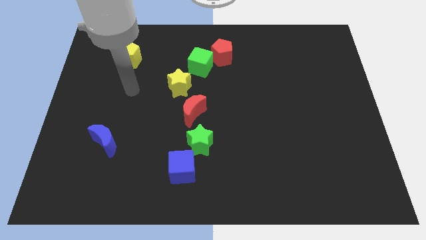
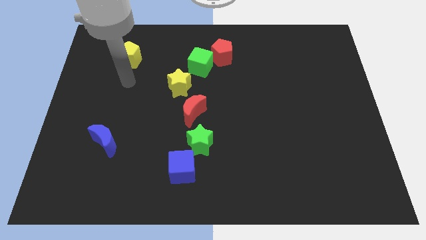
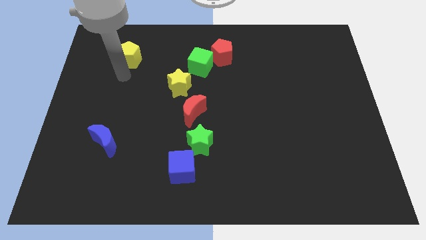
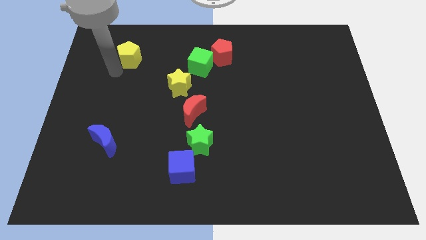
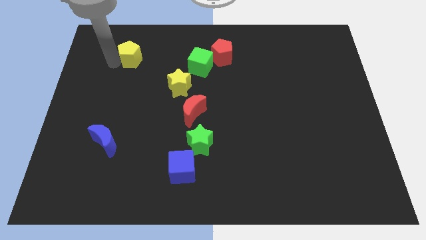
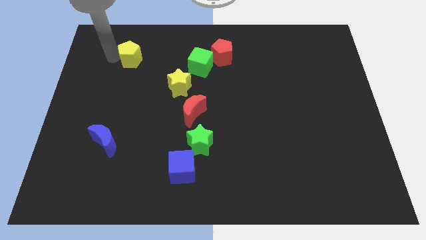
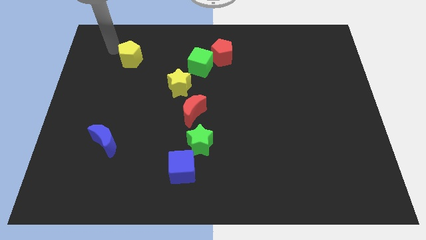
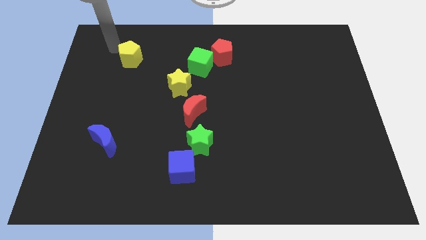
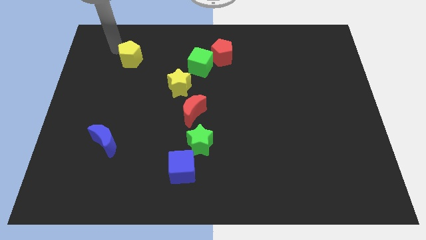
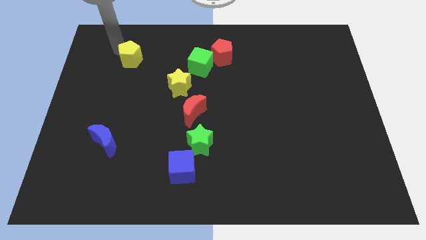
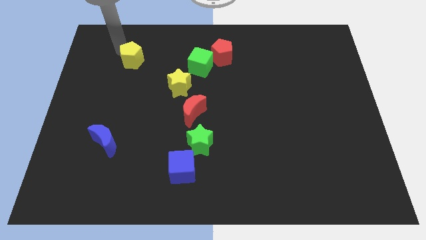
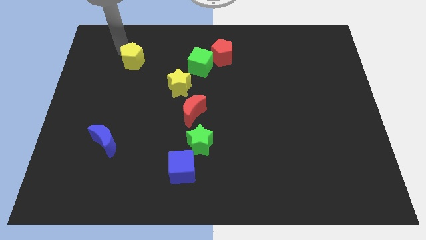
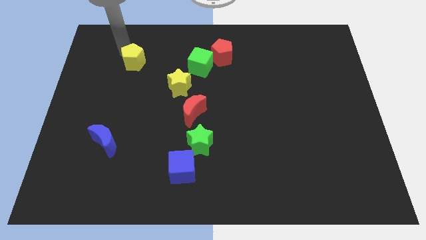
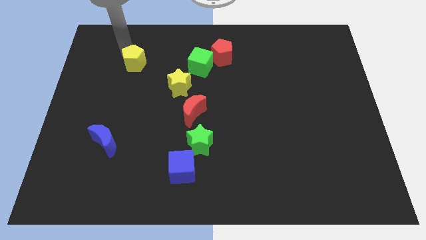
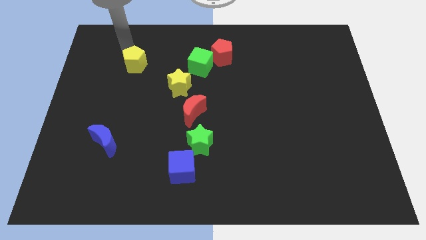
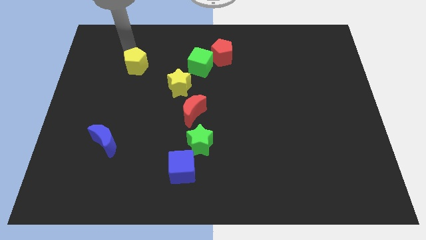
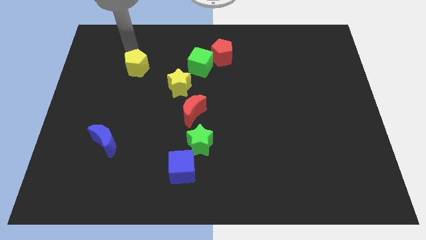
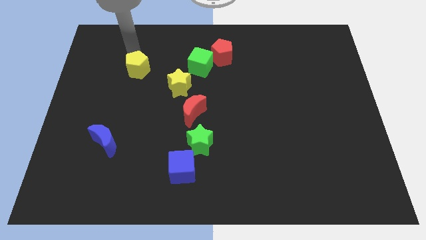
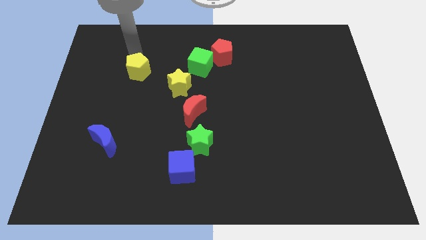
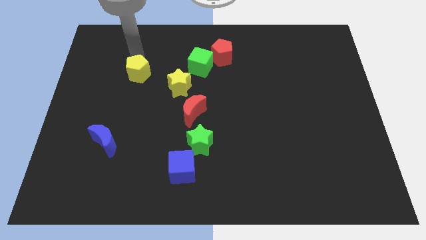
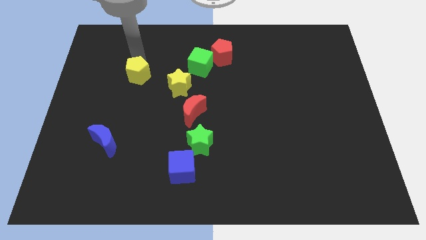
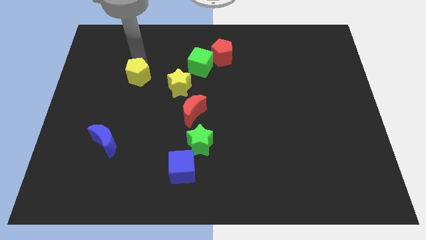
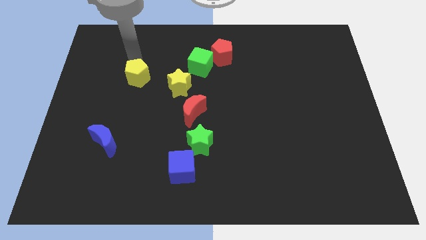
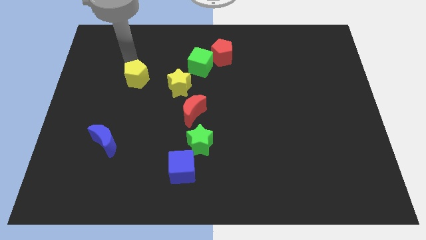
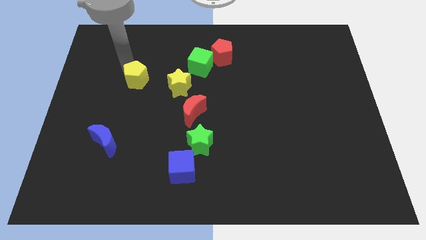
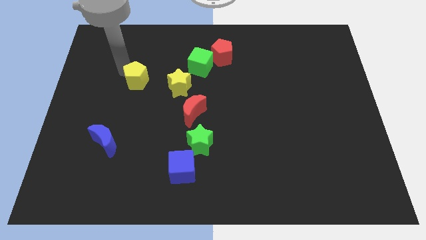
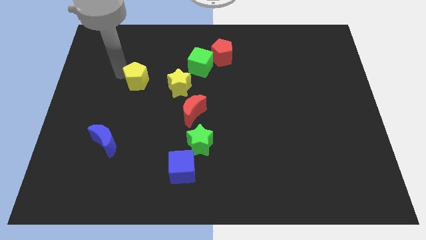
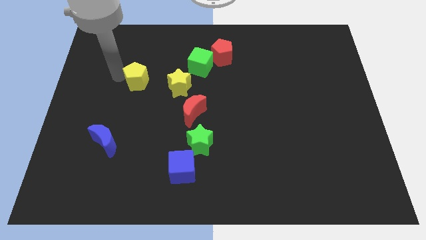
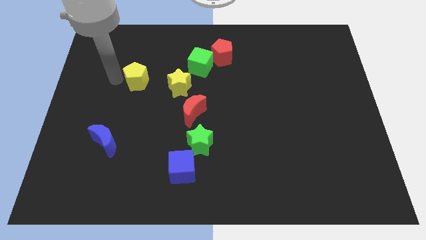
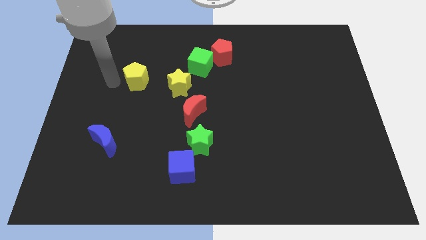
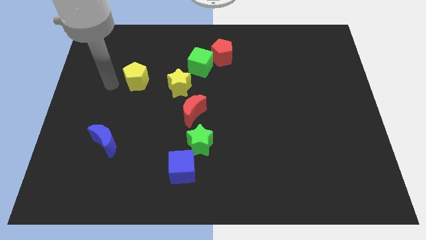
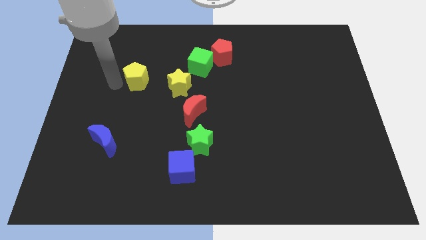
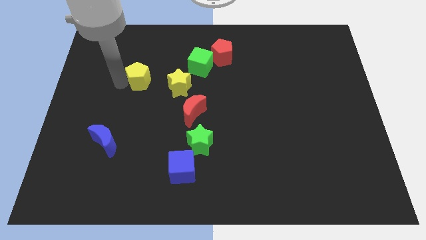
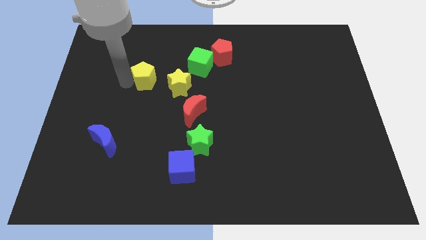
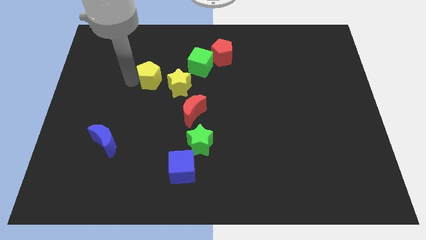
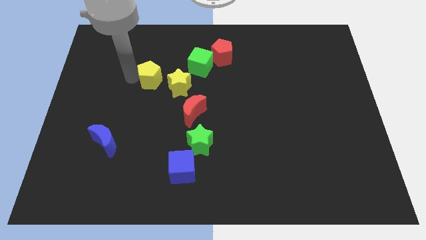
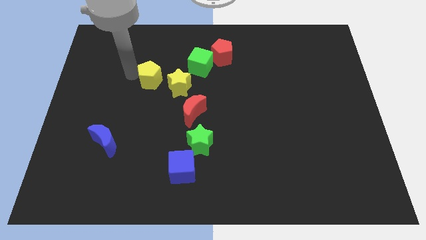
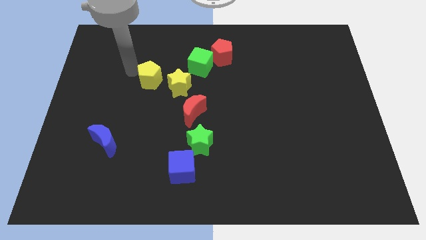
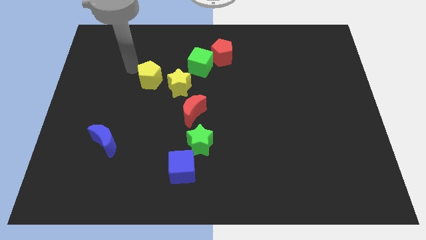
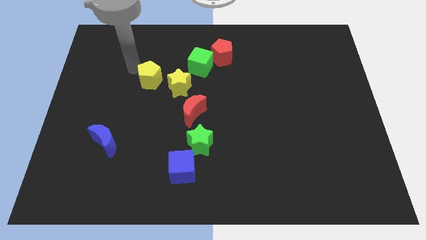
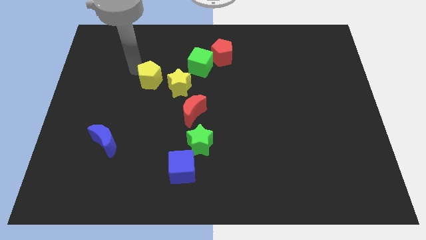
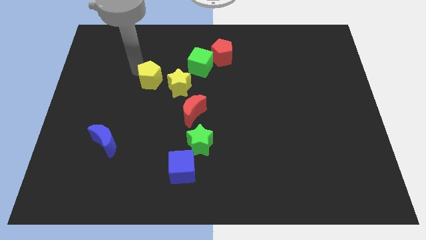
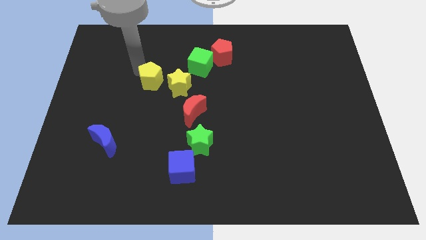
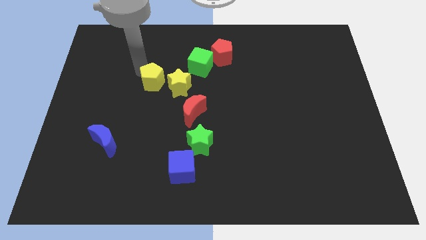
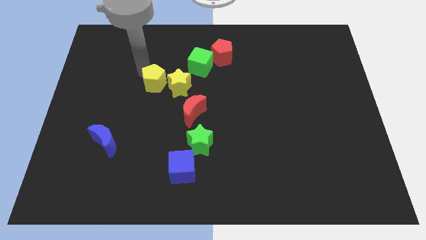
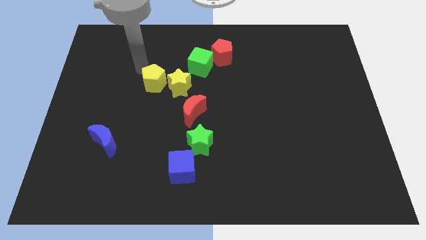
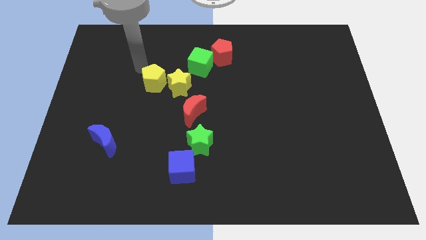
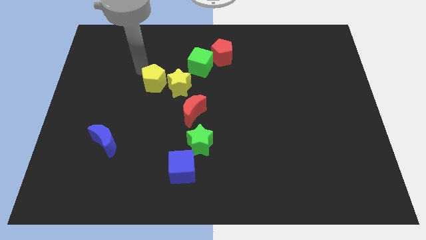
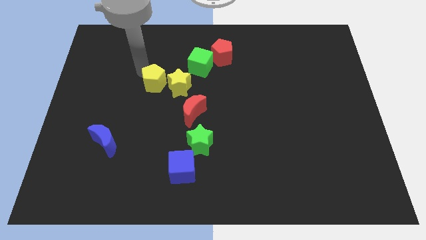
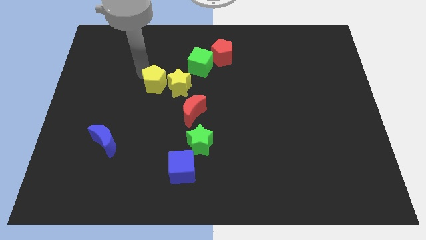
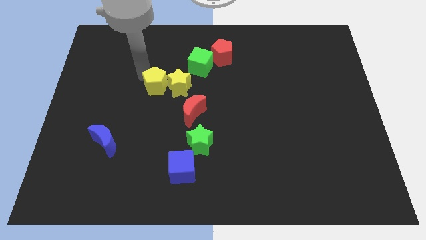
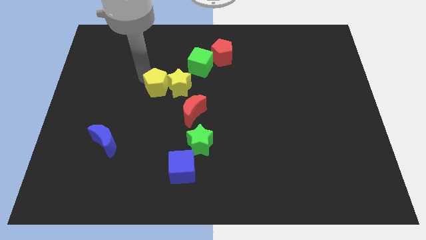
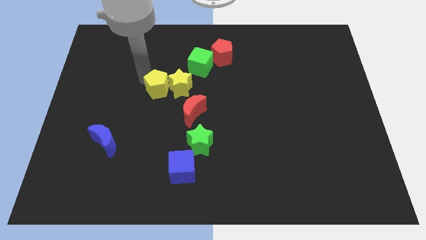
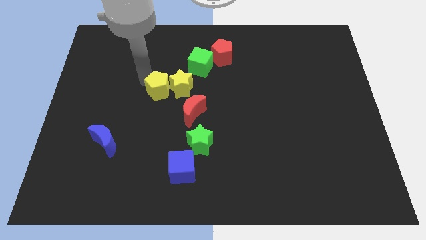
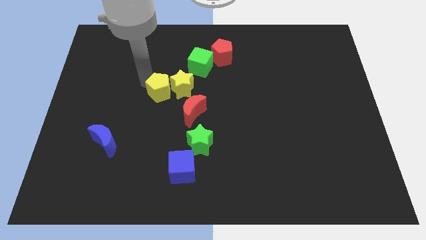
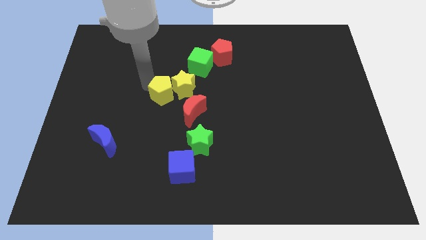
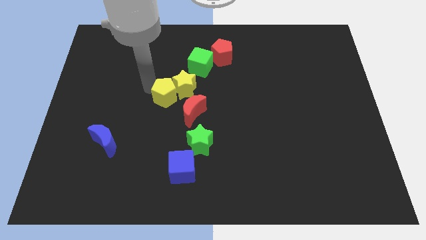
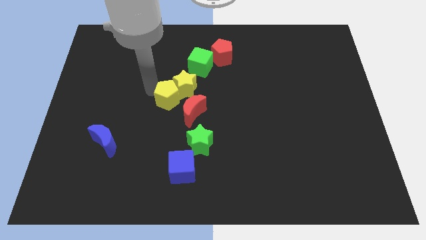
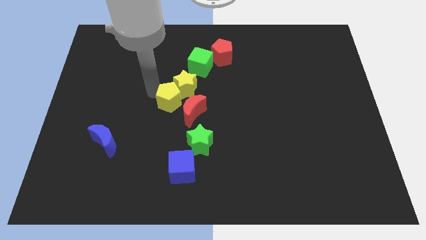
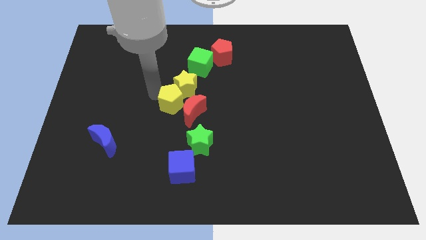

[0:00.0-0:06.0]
push the yellow pentagon towards the red moon
